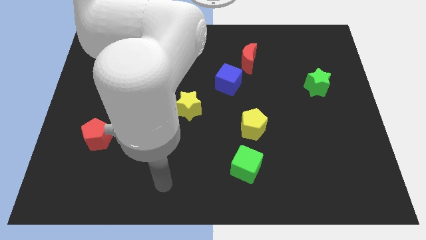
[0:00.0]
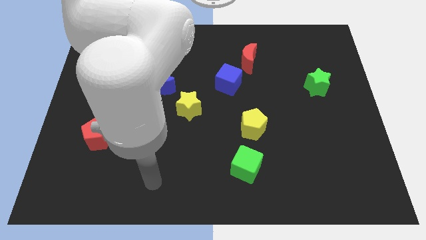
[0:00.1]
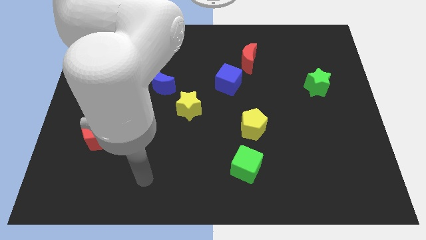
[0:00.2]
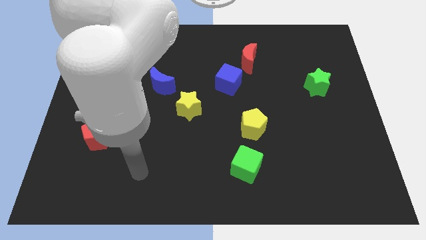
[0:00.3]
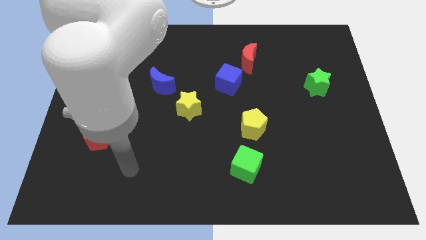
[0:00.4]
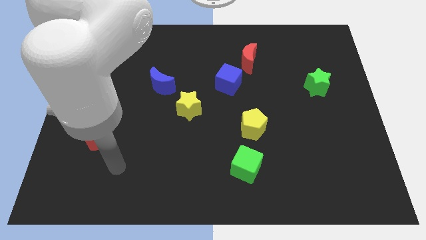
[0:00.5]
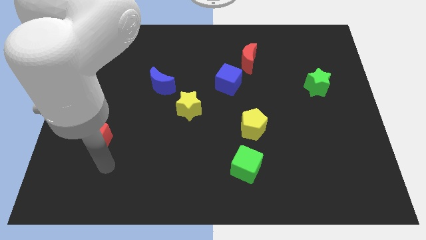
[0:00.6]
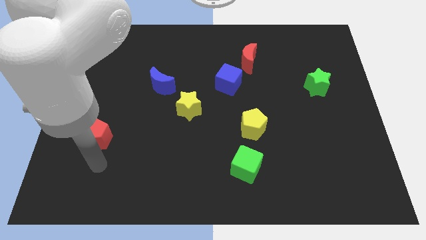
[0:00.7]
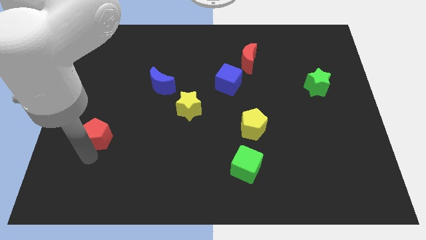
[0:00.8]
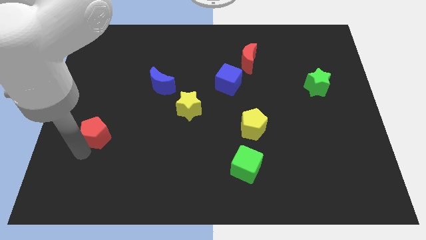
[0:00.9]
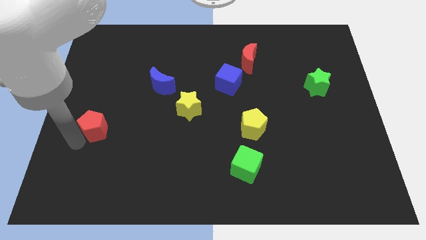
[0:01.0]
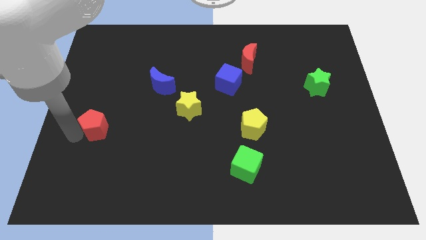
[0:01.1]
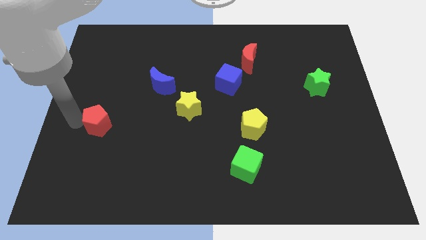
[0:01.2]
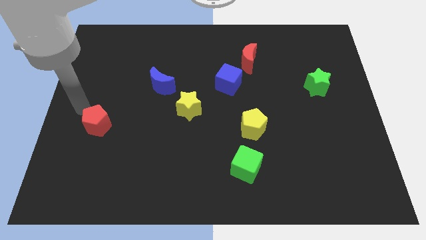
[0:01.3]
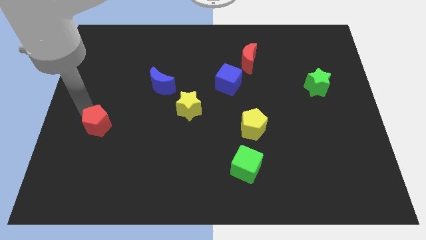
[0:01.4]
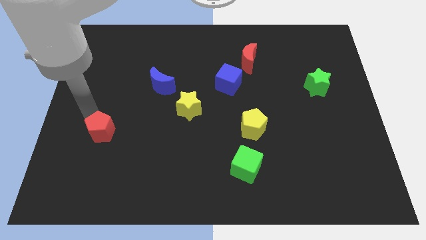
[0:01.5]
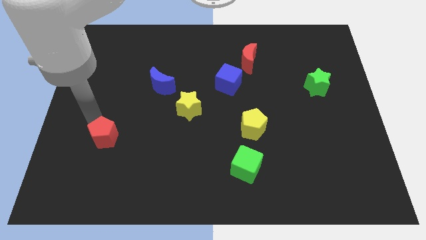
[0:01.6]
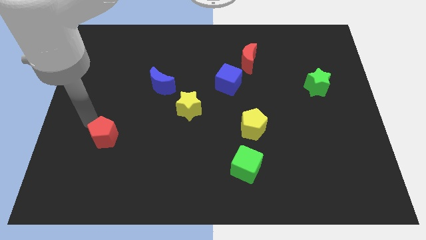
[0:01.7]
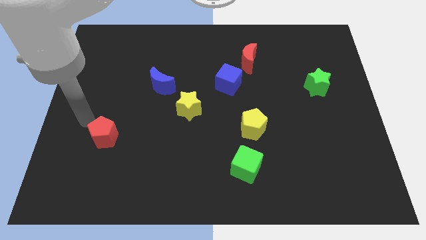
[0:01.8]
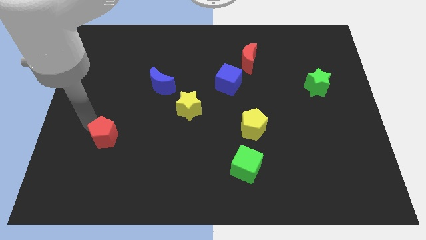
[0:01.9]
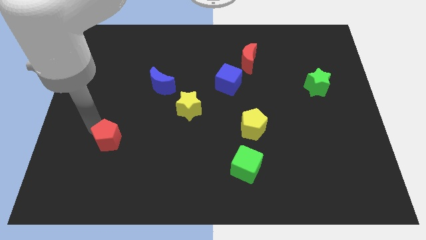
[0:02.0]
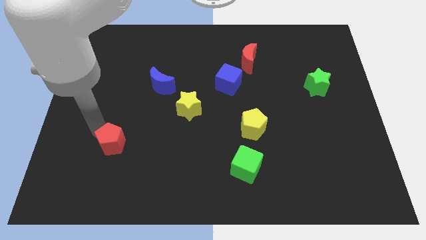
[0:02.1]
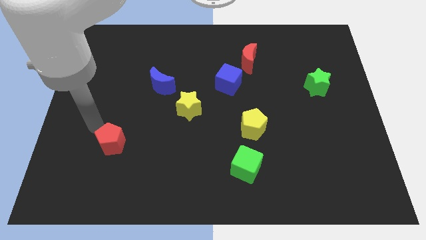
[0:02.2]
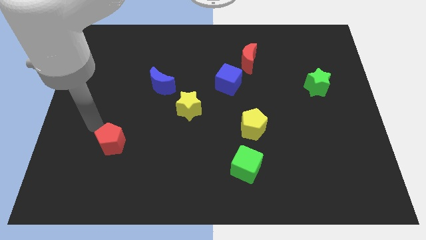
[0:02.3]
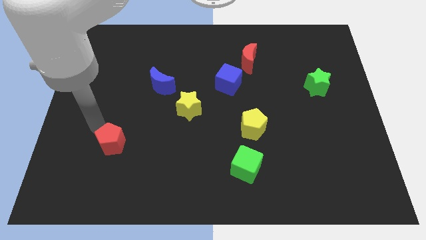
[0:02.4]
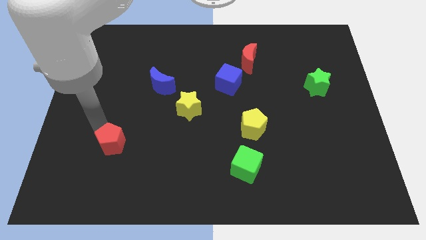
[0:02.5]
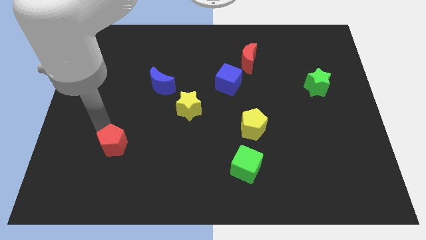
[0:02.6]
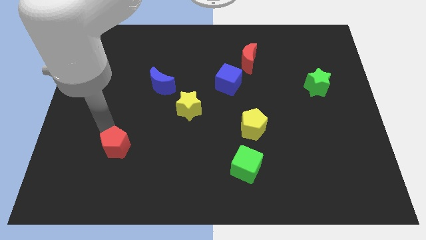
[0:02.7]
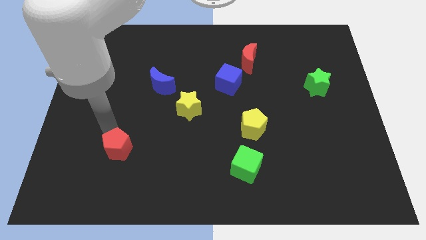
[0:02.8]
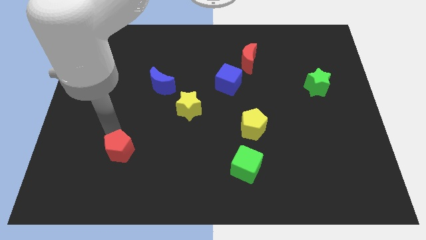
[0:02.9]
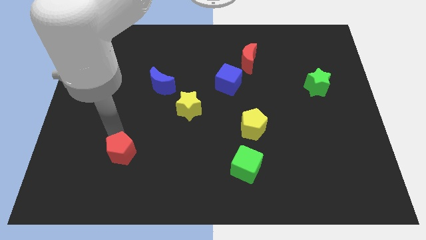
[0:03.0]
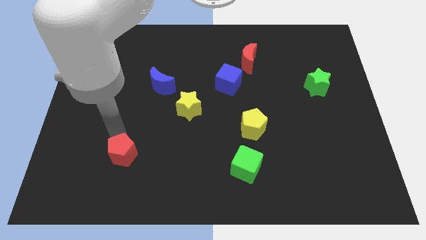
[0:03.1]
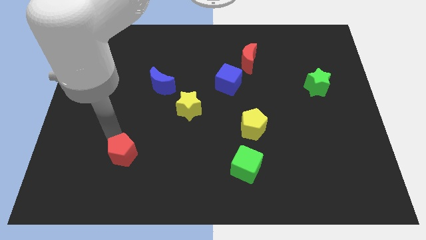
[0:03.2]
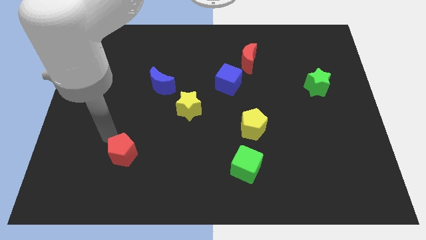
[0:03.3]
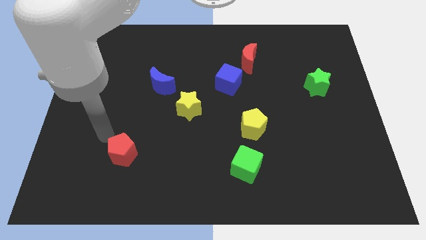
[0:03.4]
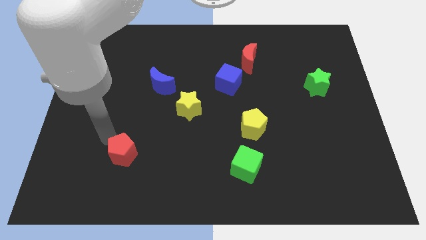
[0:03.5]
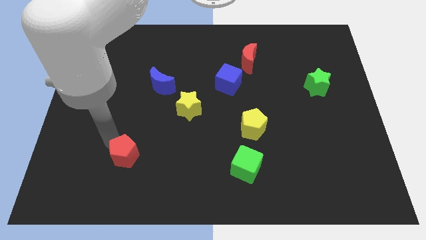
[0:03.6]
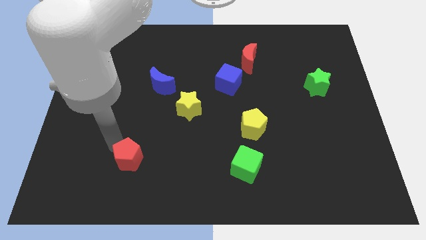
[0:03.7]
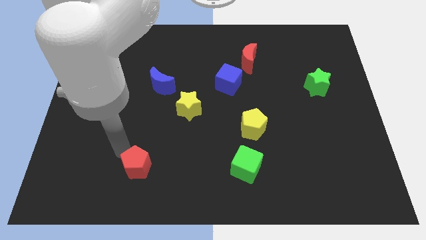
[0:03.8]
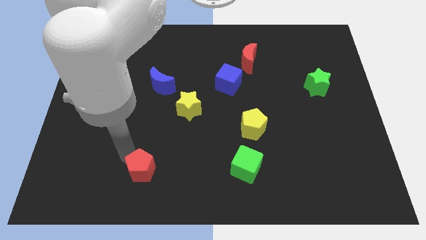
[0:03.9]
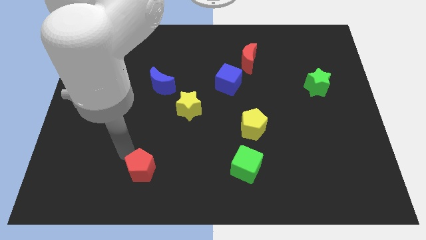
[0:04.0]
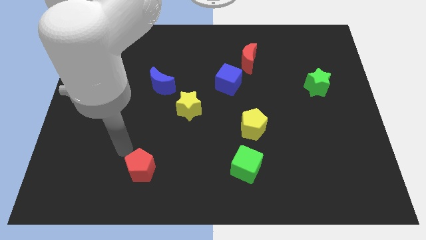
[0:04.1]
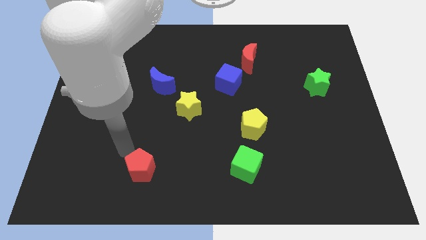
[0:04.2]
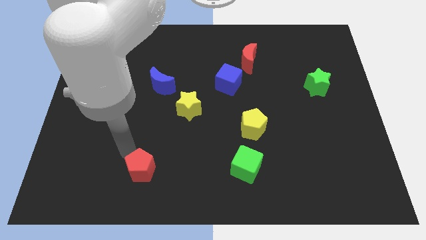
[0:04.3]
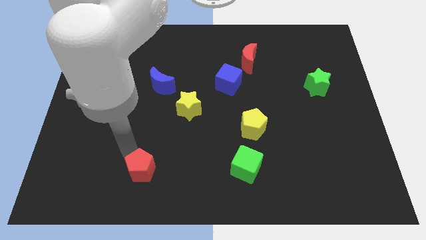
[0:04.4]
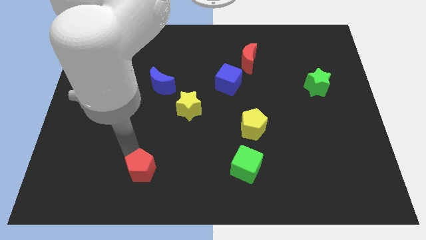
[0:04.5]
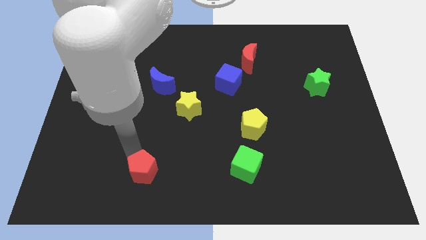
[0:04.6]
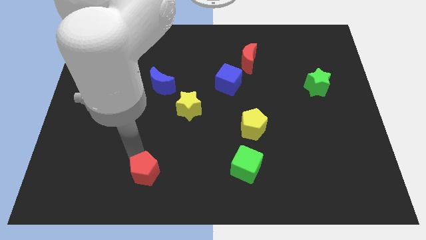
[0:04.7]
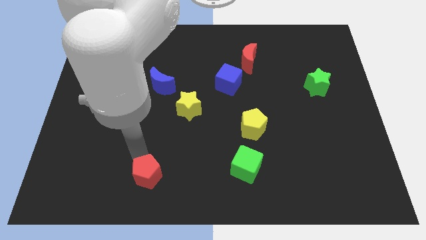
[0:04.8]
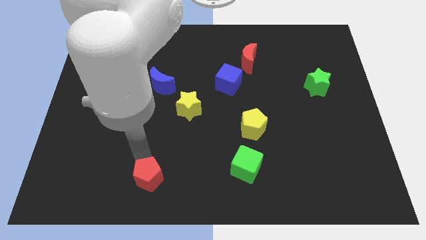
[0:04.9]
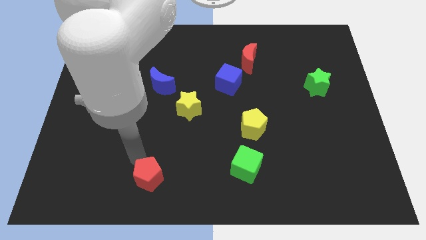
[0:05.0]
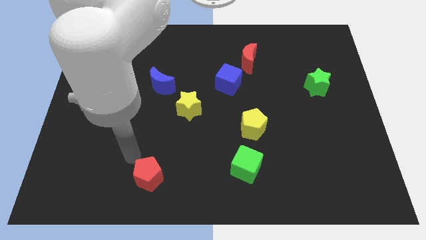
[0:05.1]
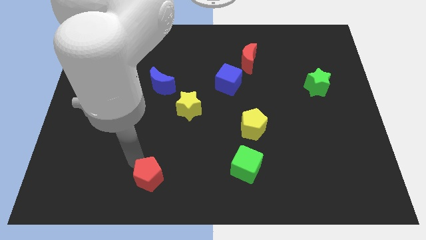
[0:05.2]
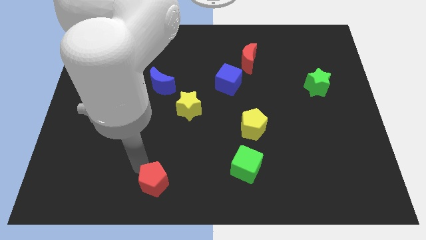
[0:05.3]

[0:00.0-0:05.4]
move the red pentagon to the bottom side

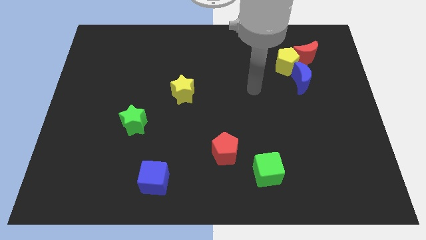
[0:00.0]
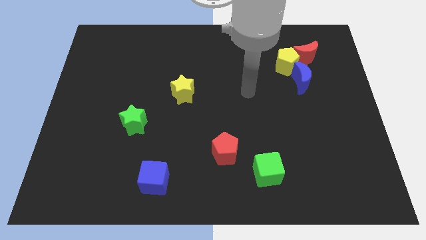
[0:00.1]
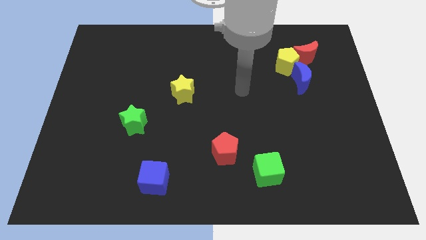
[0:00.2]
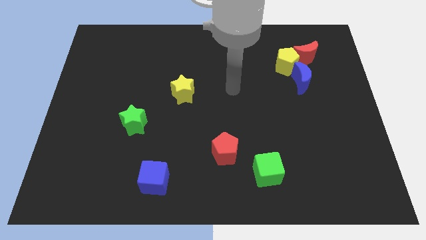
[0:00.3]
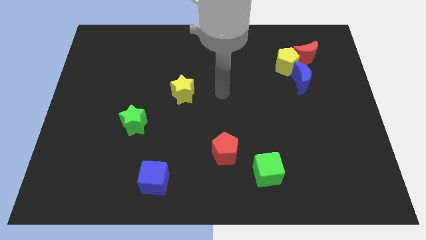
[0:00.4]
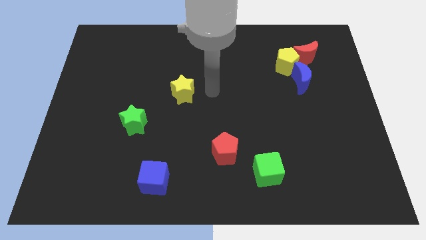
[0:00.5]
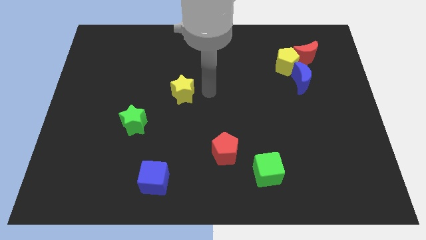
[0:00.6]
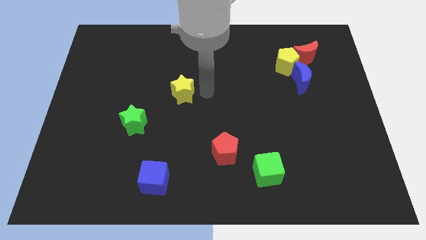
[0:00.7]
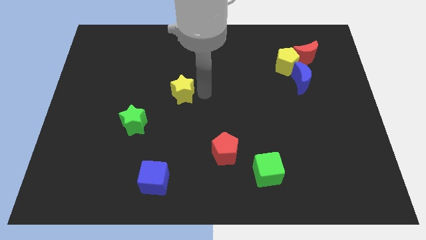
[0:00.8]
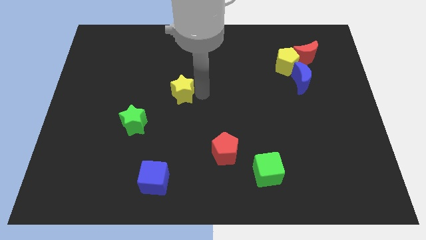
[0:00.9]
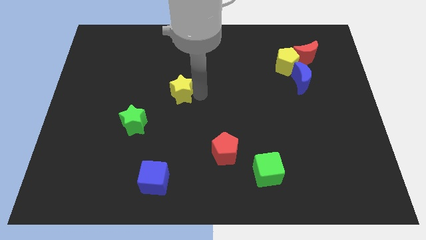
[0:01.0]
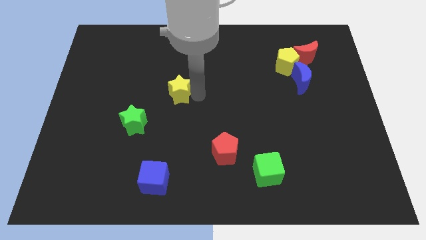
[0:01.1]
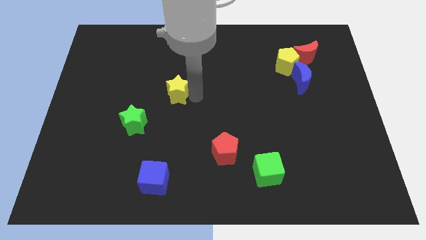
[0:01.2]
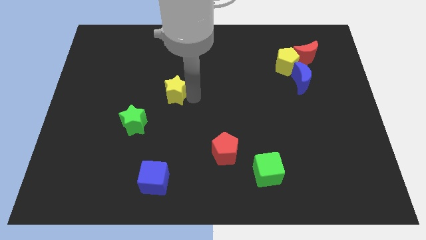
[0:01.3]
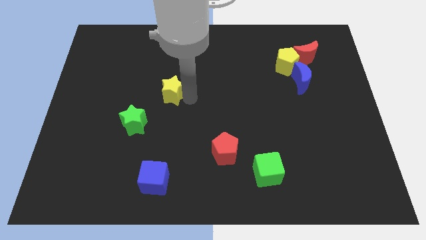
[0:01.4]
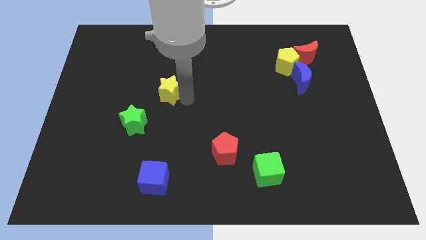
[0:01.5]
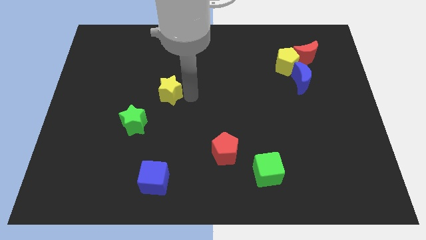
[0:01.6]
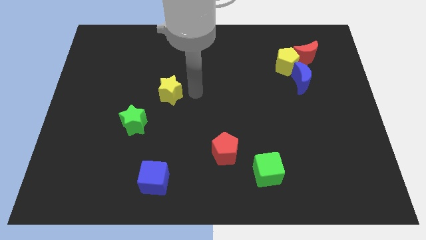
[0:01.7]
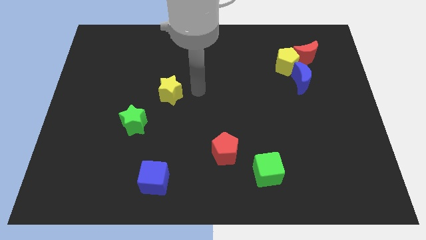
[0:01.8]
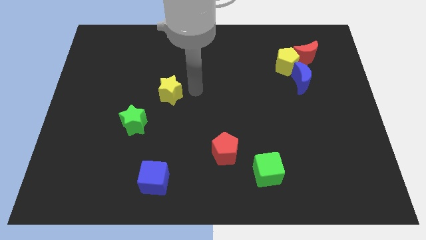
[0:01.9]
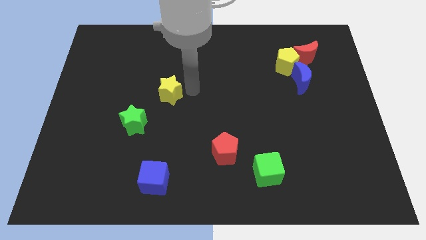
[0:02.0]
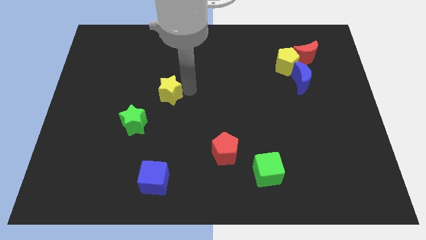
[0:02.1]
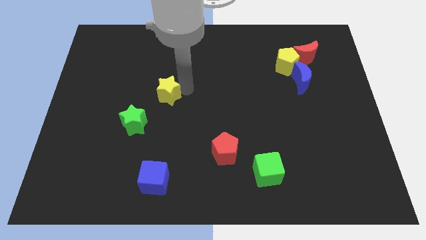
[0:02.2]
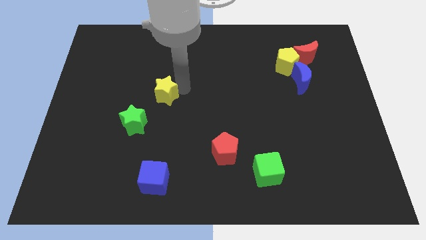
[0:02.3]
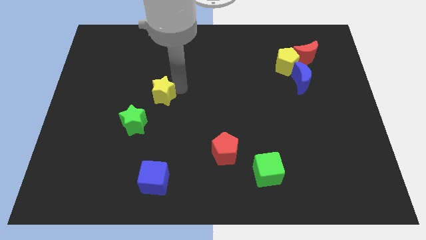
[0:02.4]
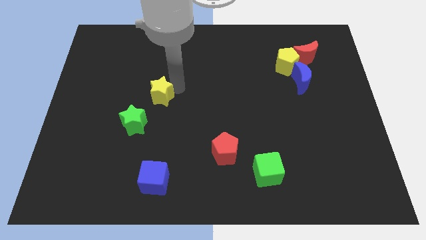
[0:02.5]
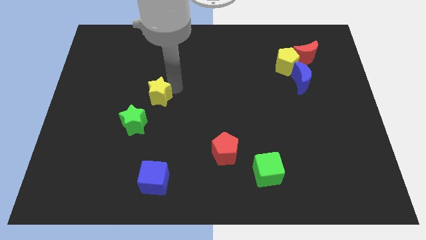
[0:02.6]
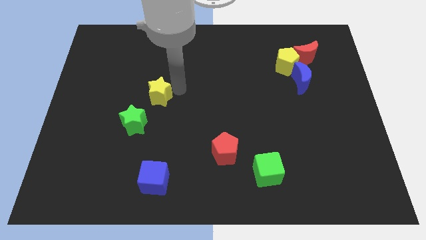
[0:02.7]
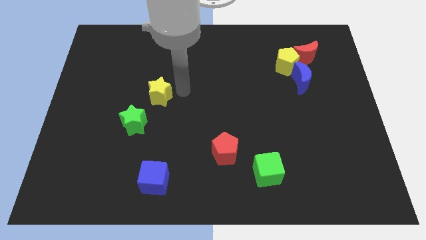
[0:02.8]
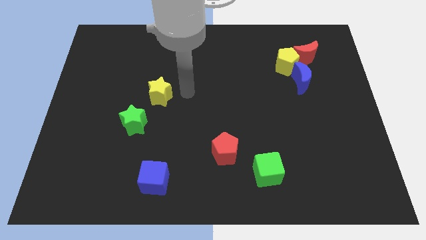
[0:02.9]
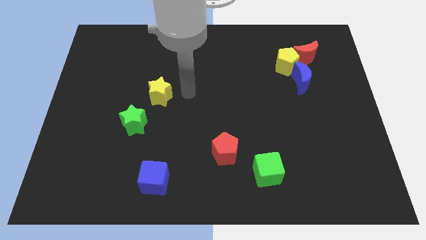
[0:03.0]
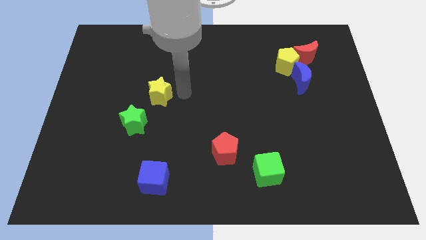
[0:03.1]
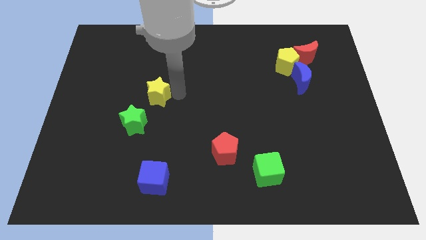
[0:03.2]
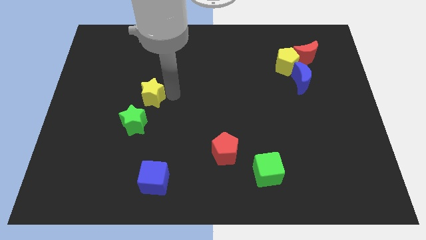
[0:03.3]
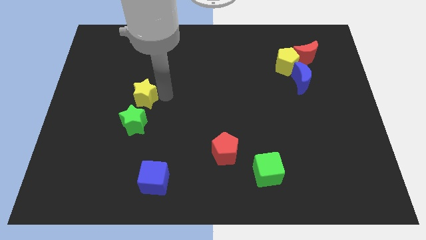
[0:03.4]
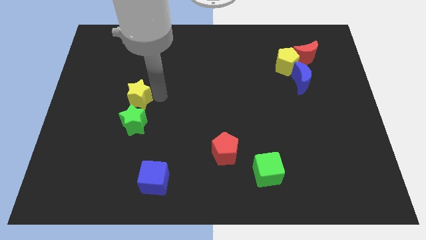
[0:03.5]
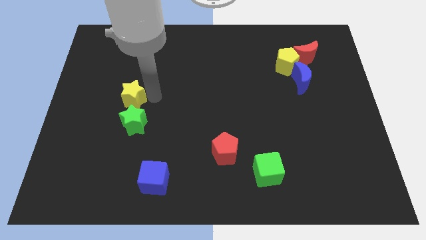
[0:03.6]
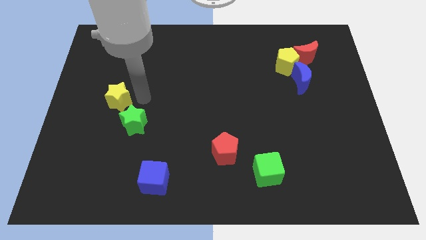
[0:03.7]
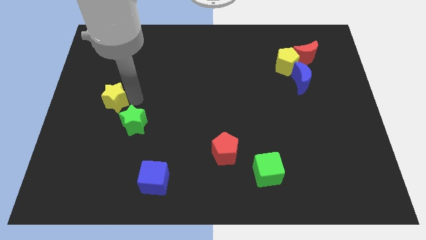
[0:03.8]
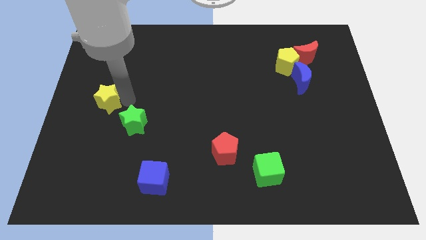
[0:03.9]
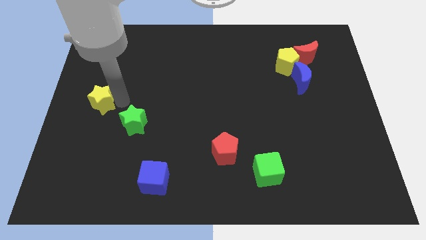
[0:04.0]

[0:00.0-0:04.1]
move the yellow star to the left side of the board
